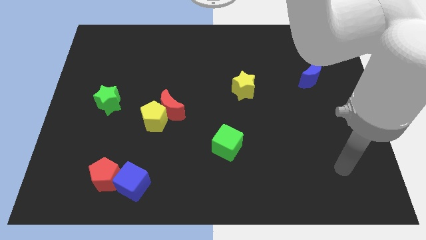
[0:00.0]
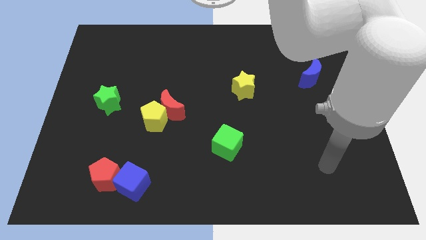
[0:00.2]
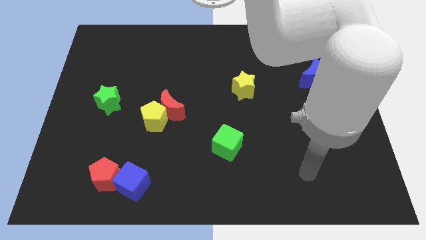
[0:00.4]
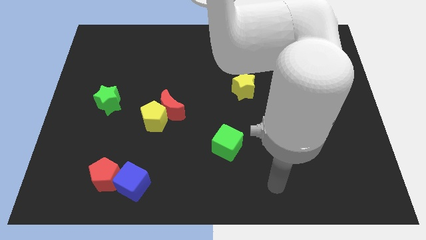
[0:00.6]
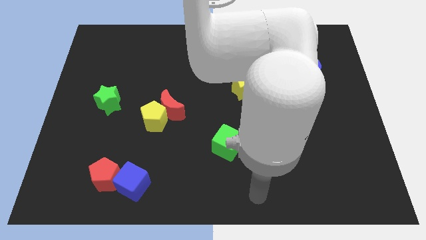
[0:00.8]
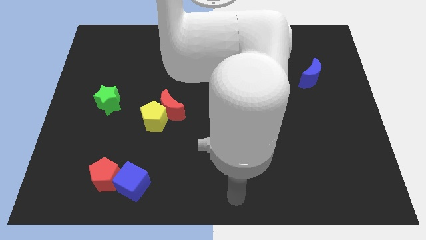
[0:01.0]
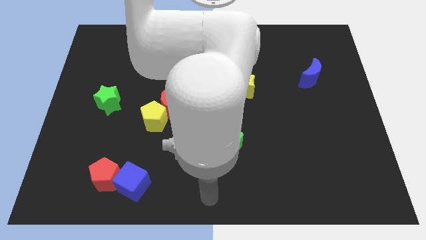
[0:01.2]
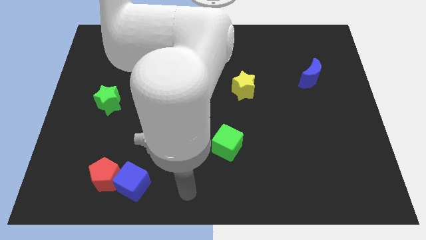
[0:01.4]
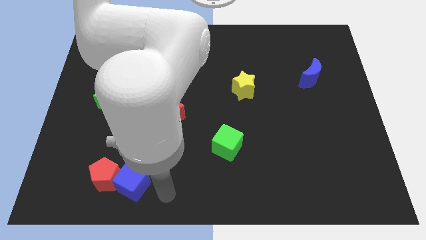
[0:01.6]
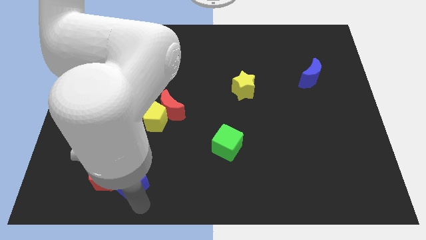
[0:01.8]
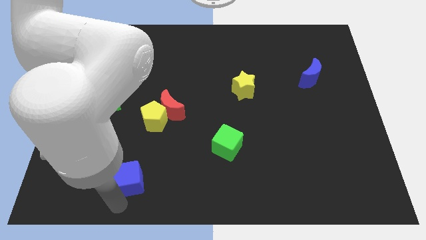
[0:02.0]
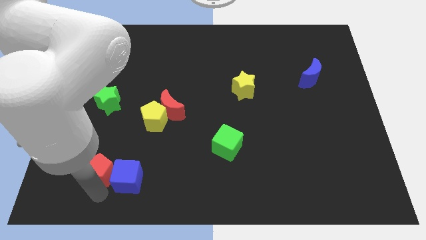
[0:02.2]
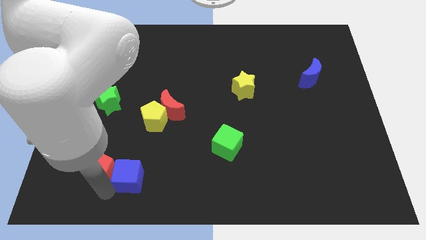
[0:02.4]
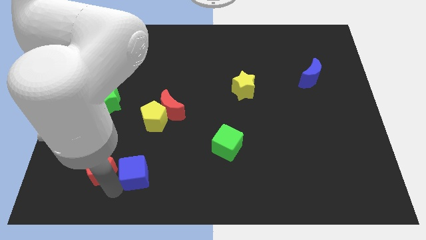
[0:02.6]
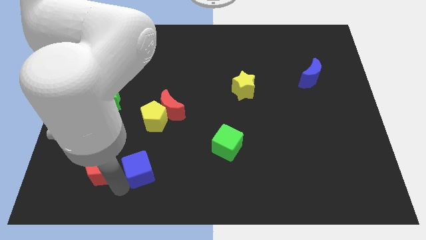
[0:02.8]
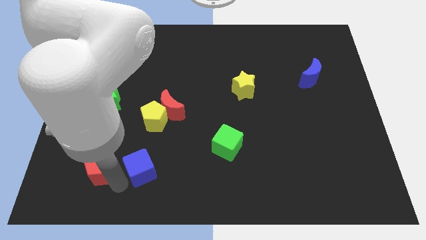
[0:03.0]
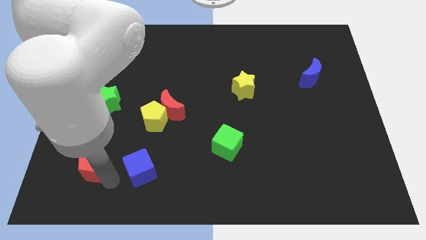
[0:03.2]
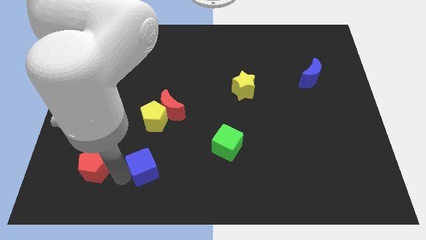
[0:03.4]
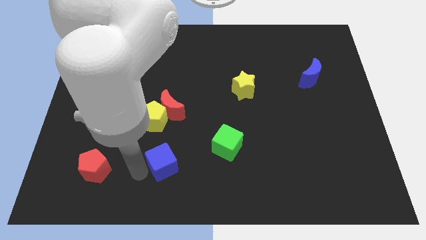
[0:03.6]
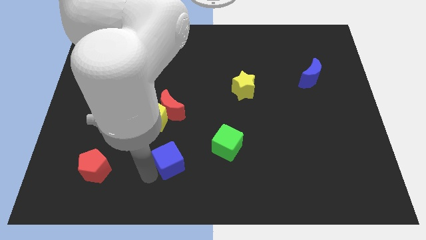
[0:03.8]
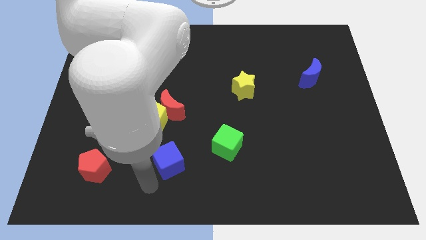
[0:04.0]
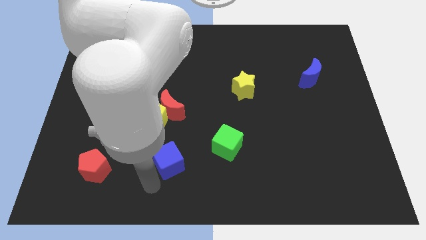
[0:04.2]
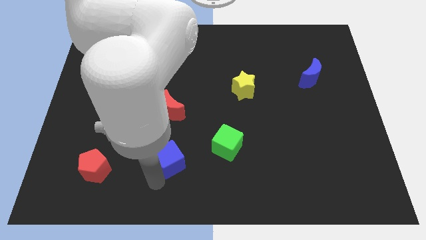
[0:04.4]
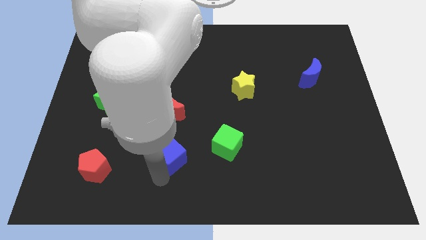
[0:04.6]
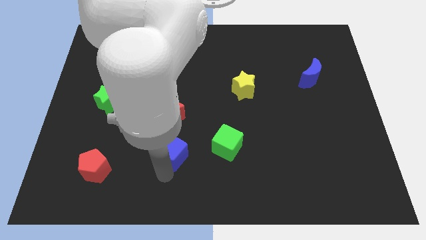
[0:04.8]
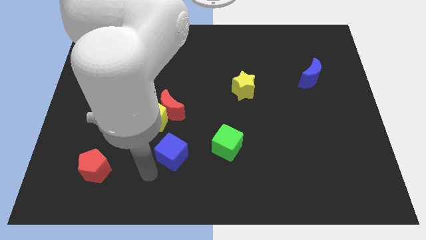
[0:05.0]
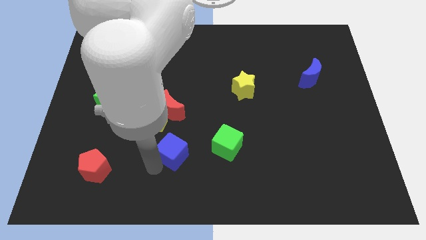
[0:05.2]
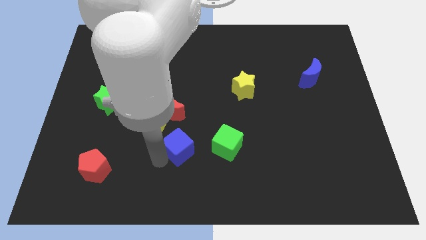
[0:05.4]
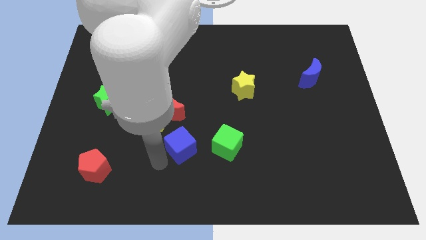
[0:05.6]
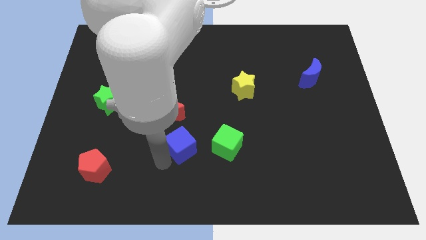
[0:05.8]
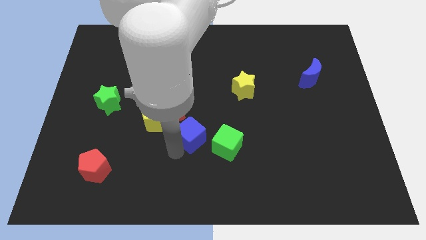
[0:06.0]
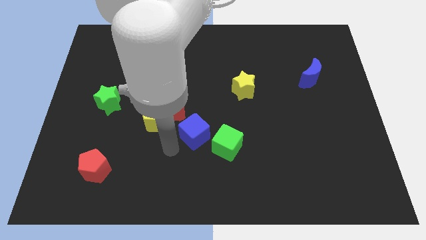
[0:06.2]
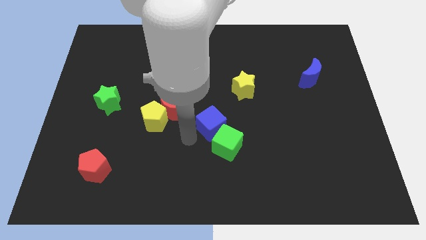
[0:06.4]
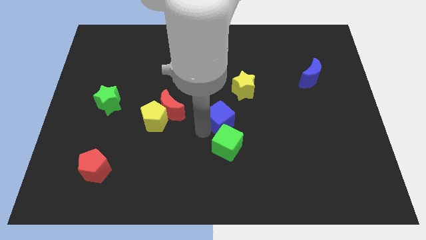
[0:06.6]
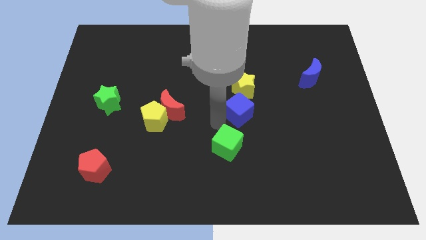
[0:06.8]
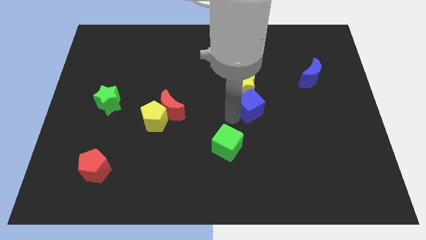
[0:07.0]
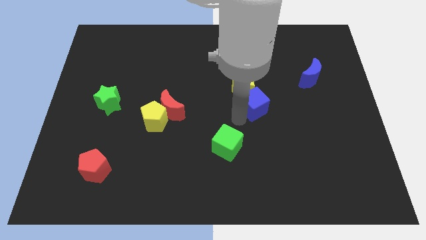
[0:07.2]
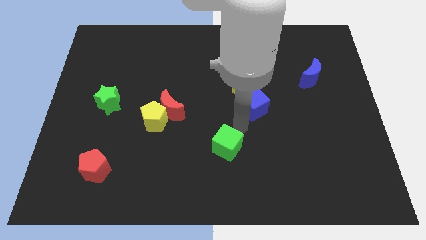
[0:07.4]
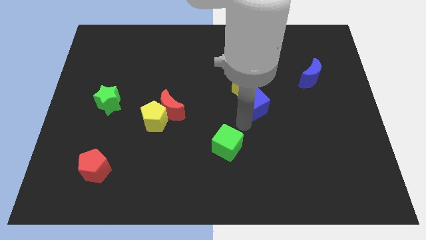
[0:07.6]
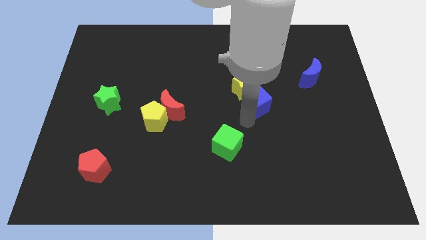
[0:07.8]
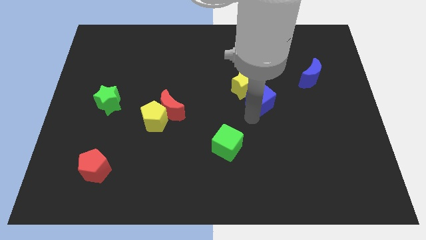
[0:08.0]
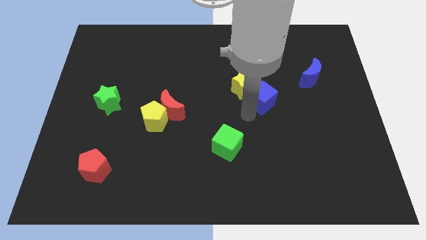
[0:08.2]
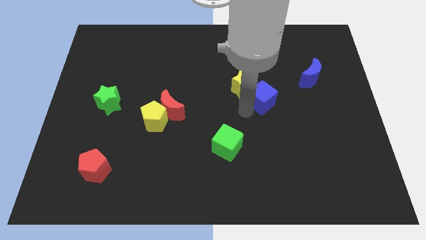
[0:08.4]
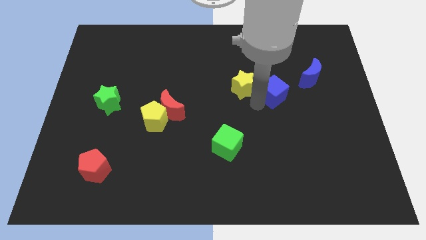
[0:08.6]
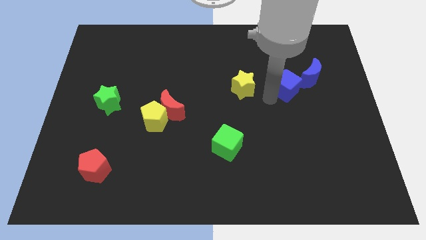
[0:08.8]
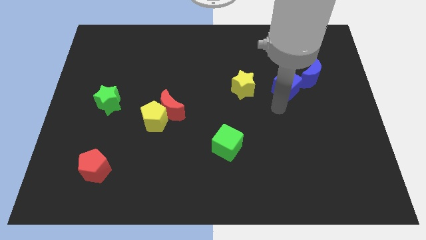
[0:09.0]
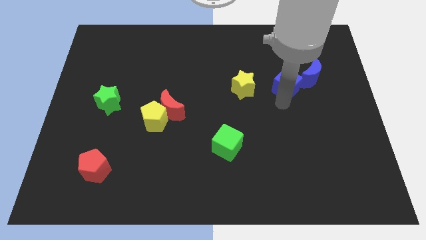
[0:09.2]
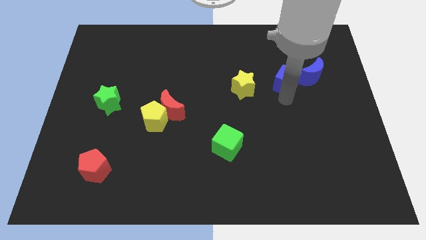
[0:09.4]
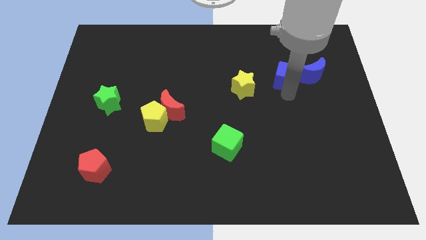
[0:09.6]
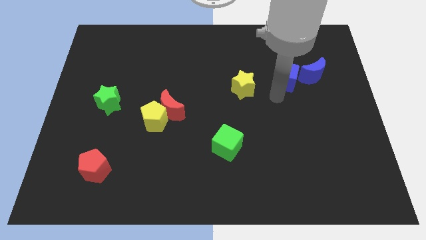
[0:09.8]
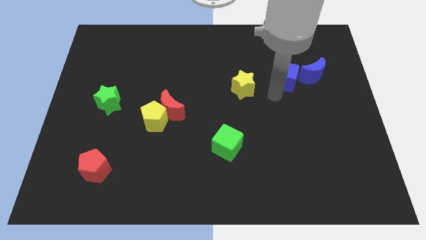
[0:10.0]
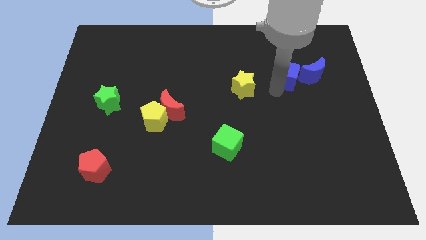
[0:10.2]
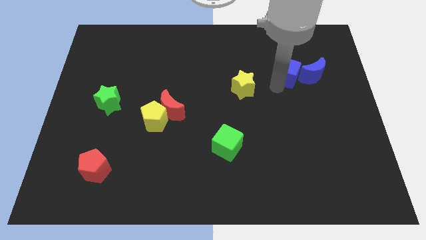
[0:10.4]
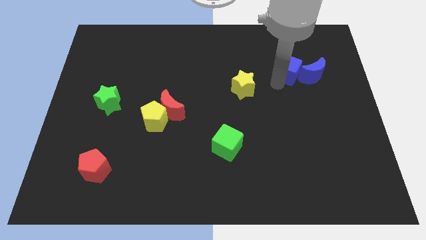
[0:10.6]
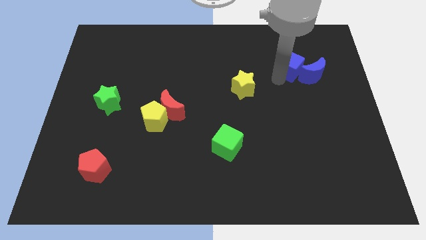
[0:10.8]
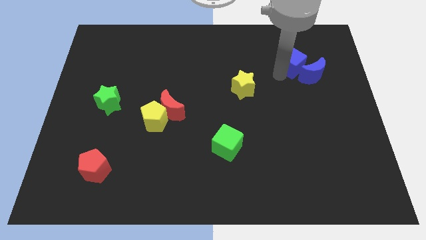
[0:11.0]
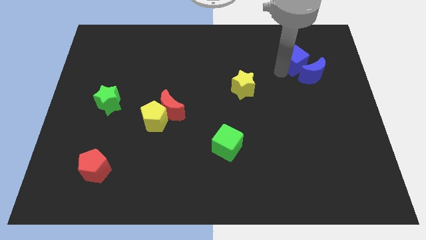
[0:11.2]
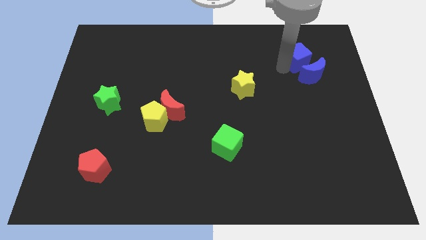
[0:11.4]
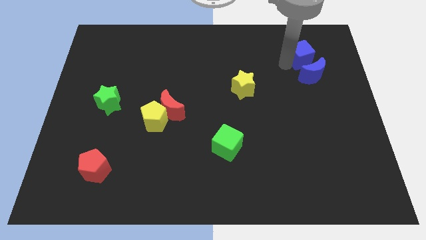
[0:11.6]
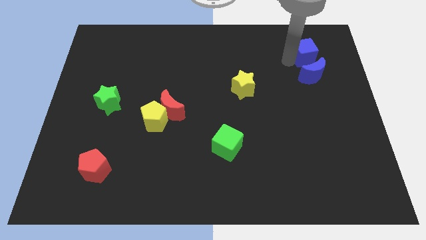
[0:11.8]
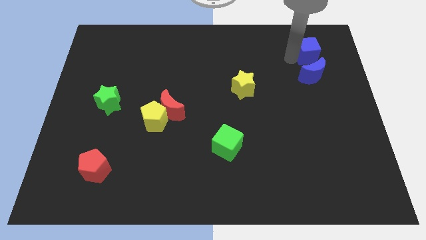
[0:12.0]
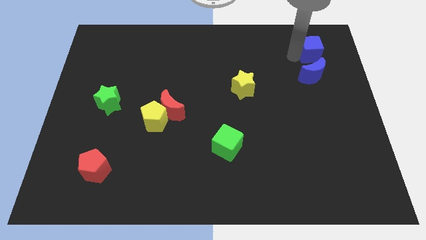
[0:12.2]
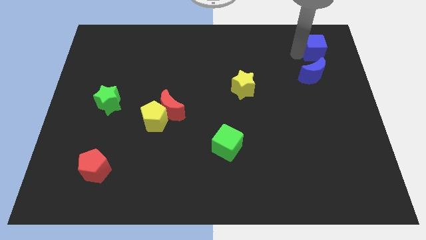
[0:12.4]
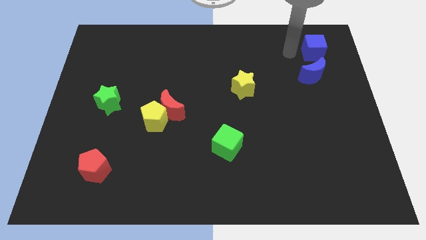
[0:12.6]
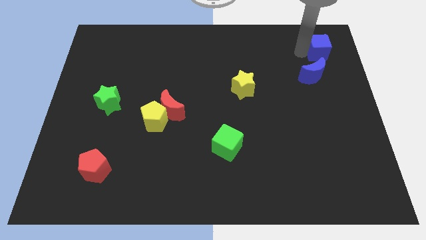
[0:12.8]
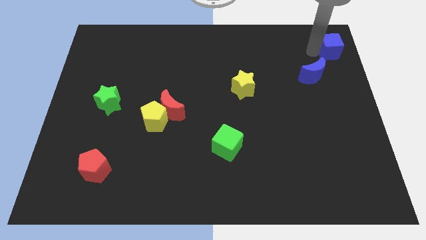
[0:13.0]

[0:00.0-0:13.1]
move the blue cube to the top right of the board

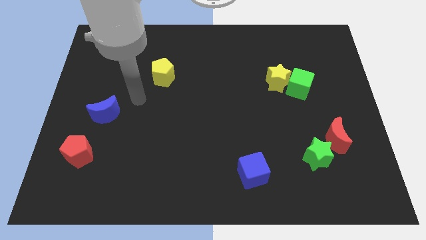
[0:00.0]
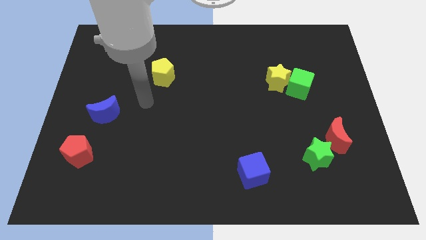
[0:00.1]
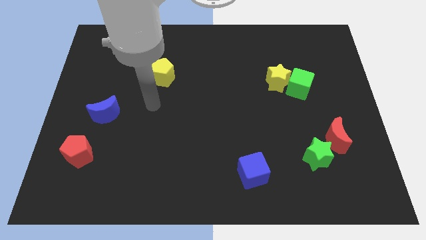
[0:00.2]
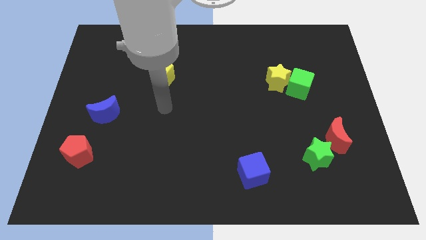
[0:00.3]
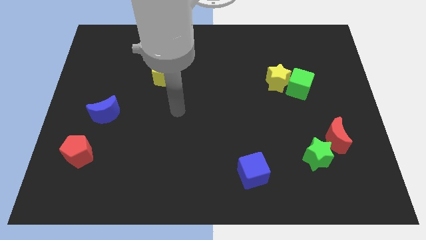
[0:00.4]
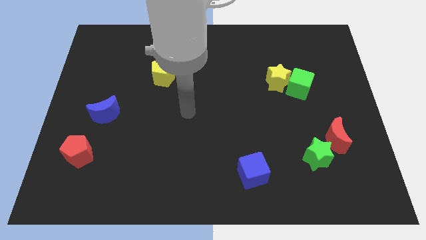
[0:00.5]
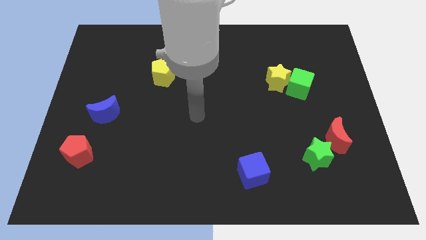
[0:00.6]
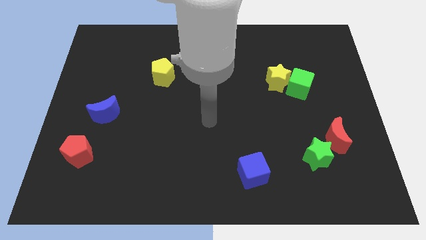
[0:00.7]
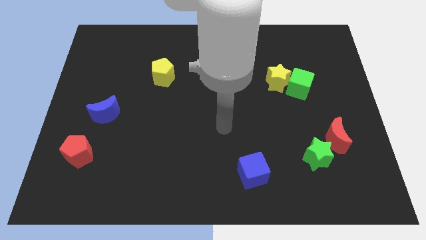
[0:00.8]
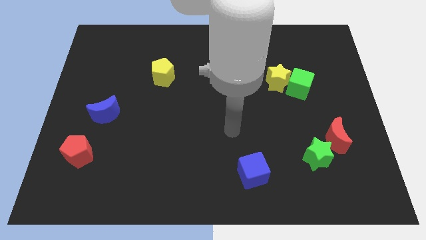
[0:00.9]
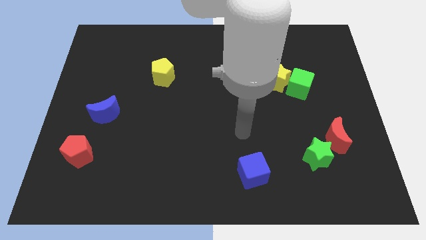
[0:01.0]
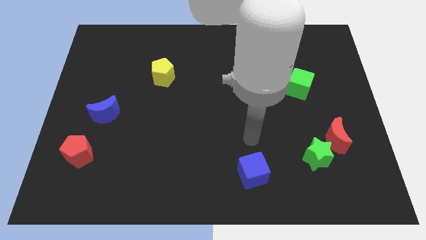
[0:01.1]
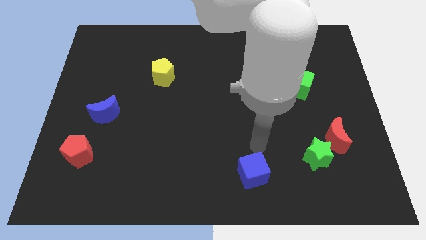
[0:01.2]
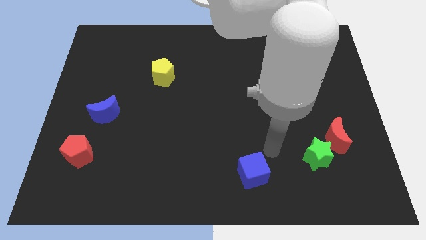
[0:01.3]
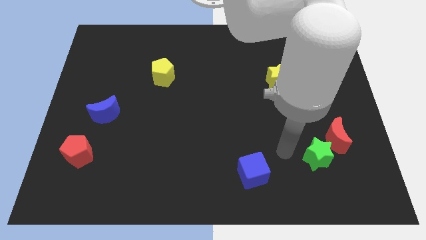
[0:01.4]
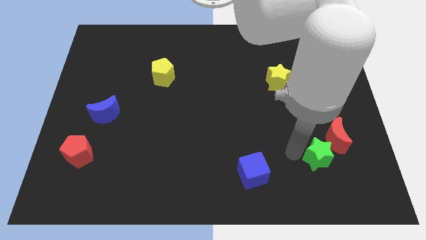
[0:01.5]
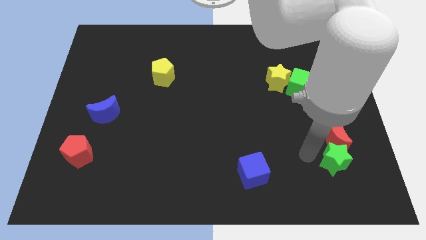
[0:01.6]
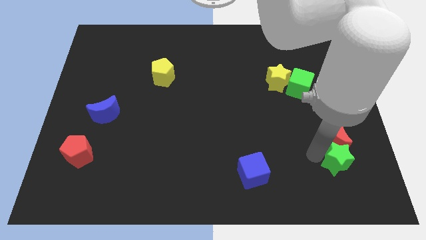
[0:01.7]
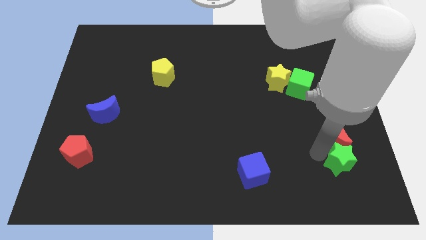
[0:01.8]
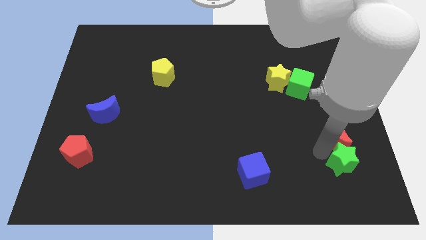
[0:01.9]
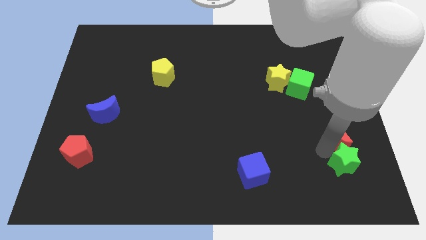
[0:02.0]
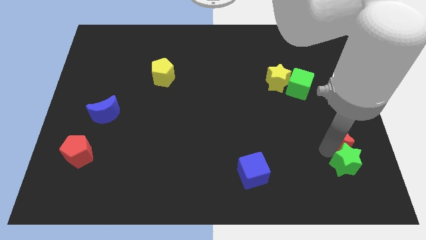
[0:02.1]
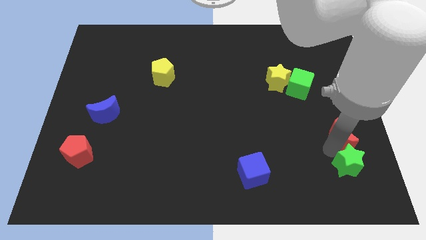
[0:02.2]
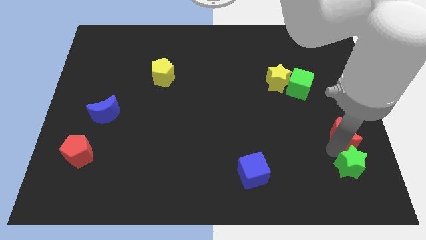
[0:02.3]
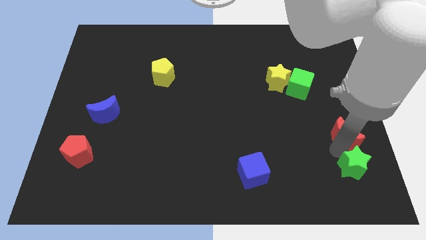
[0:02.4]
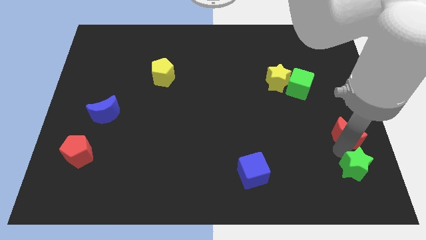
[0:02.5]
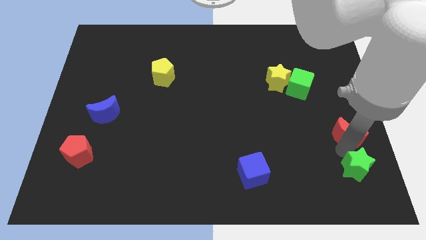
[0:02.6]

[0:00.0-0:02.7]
move the red moon to the center right
